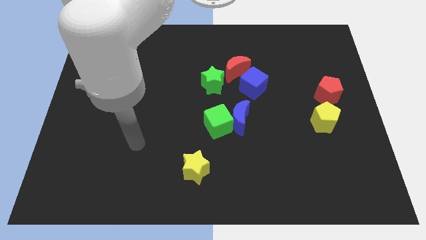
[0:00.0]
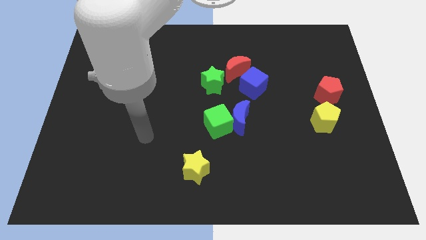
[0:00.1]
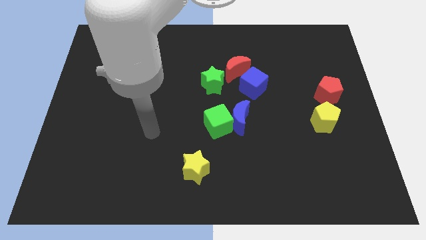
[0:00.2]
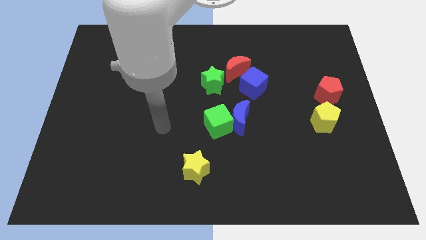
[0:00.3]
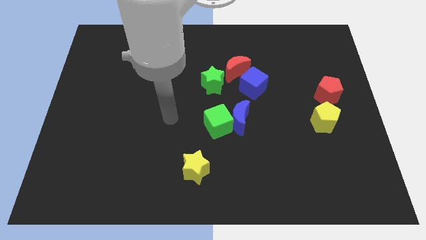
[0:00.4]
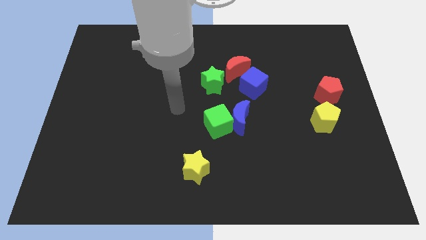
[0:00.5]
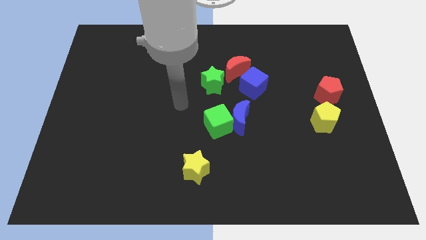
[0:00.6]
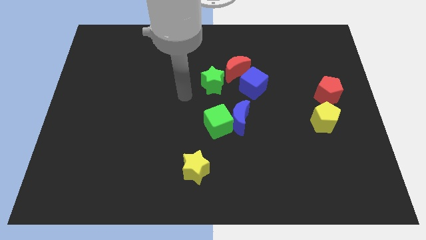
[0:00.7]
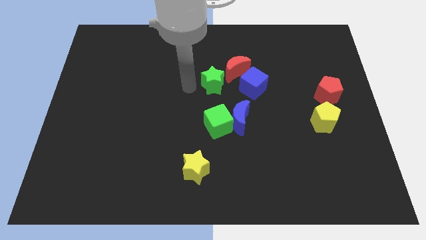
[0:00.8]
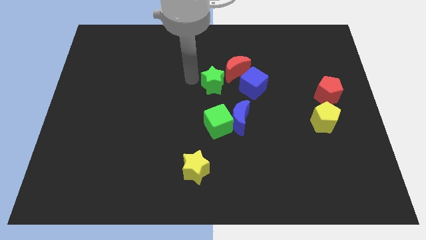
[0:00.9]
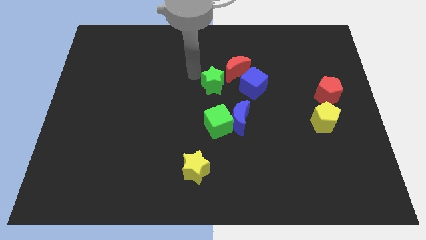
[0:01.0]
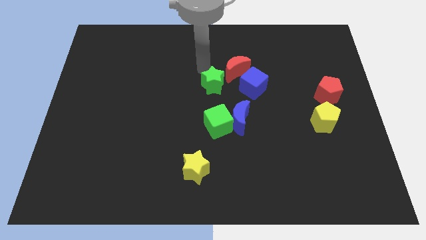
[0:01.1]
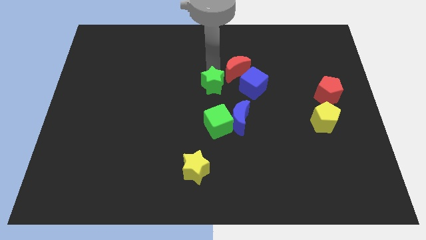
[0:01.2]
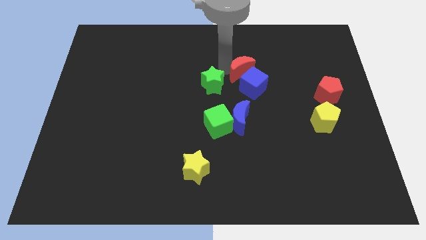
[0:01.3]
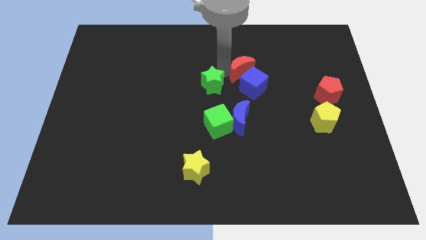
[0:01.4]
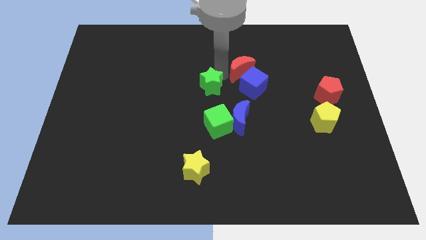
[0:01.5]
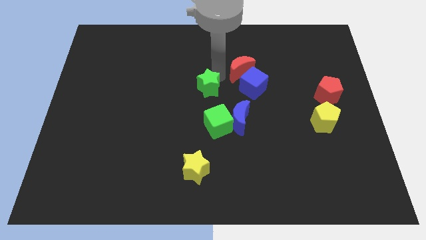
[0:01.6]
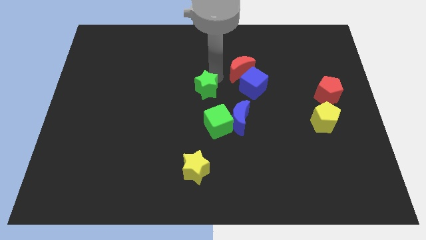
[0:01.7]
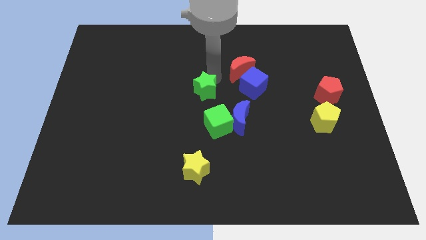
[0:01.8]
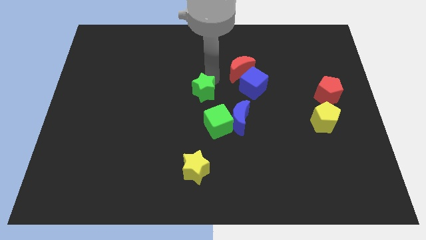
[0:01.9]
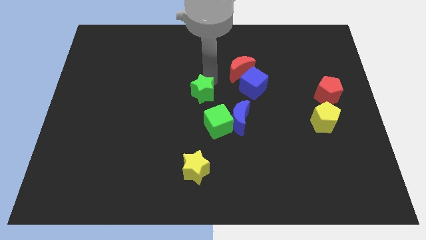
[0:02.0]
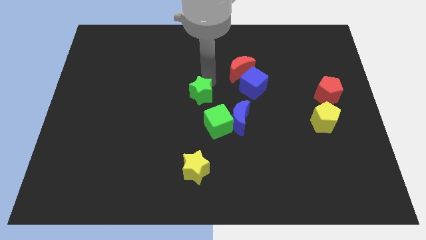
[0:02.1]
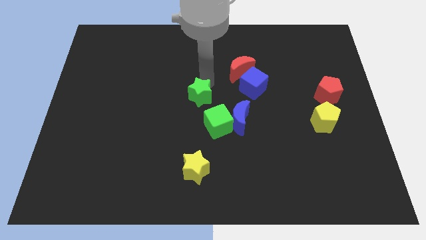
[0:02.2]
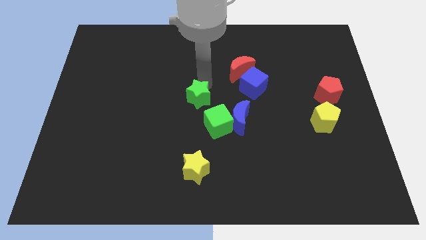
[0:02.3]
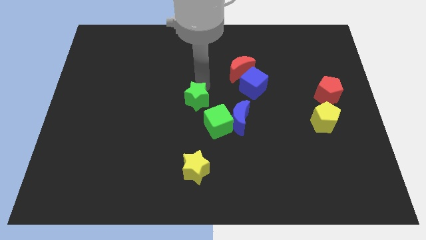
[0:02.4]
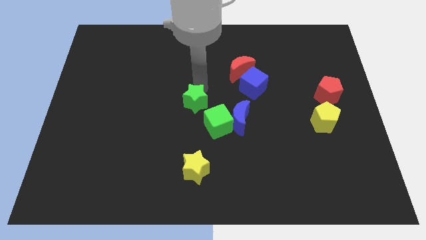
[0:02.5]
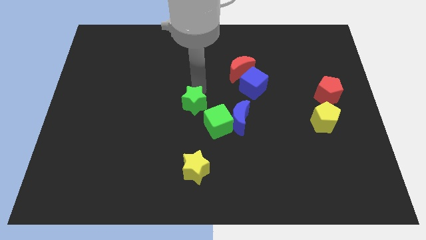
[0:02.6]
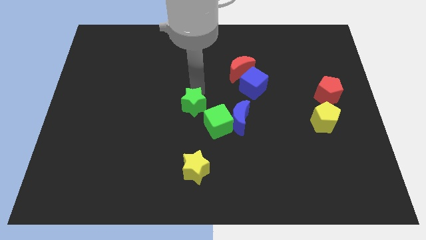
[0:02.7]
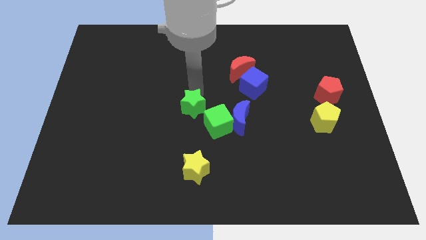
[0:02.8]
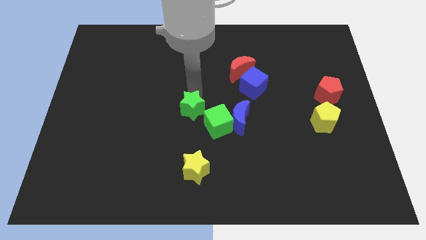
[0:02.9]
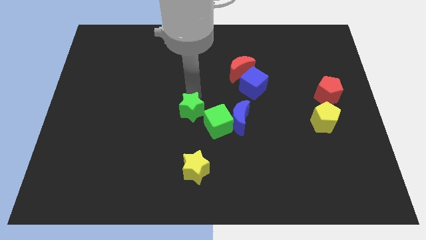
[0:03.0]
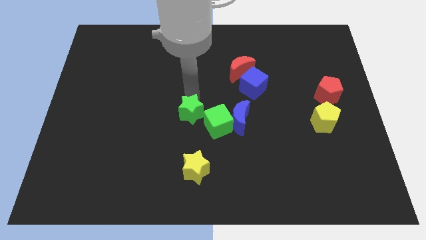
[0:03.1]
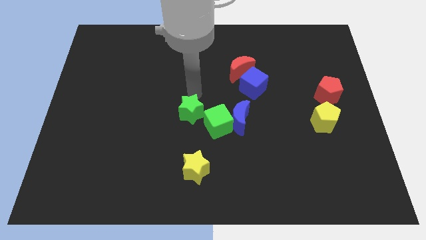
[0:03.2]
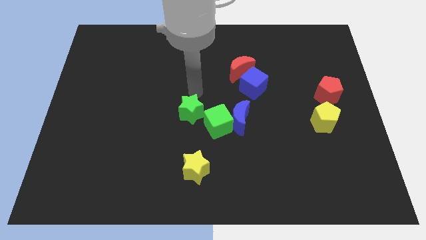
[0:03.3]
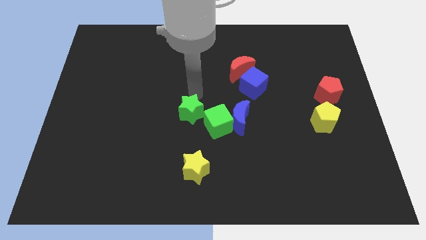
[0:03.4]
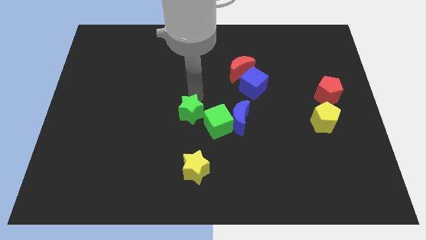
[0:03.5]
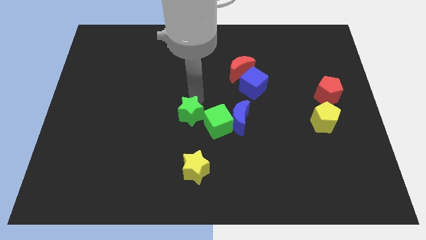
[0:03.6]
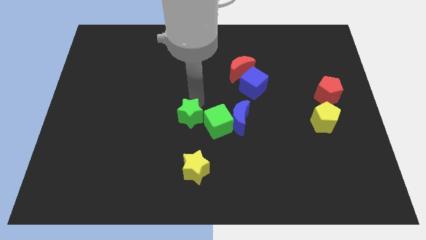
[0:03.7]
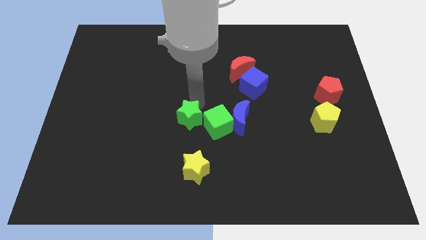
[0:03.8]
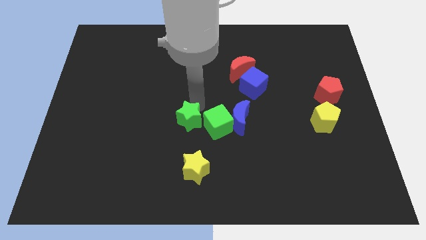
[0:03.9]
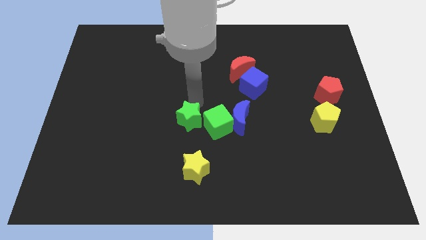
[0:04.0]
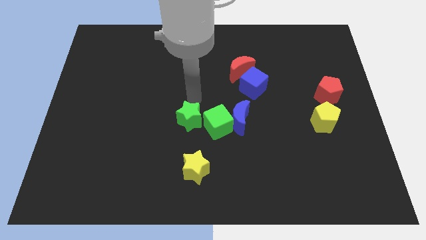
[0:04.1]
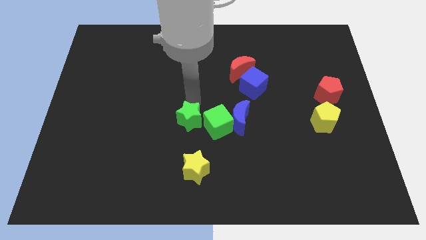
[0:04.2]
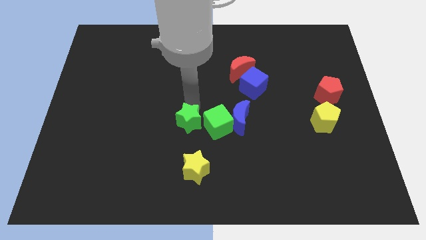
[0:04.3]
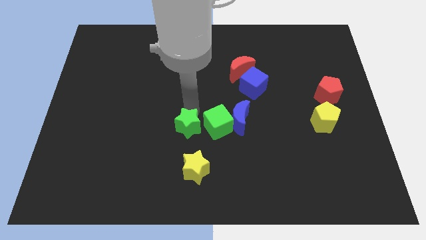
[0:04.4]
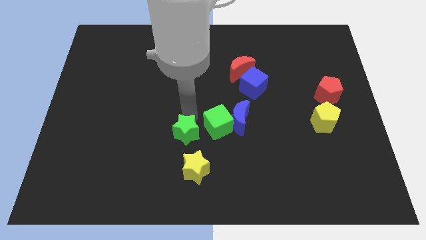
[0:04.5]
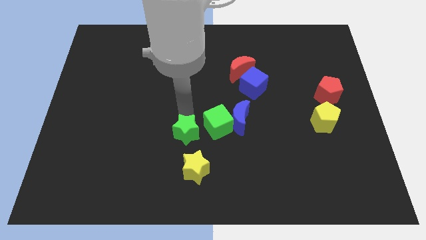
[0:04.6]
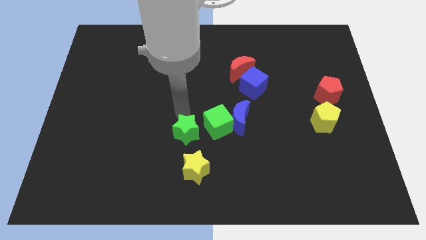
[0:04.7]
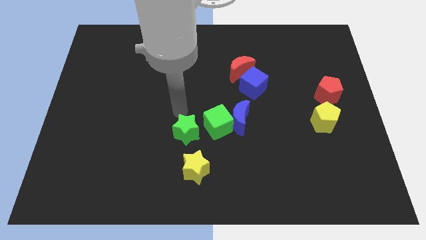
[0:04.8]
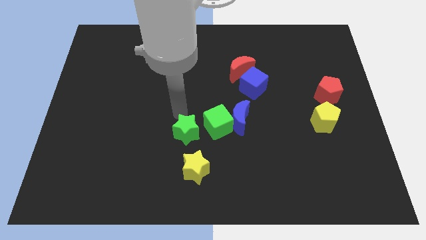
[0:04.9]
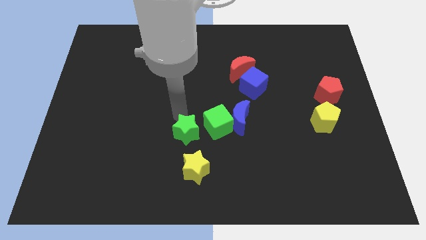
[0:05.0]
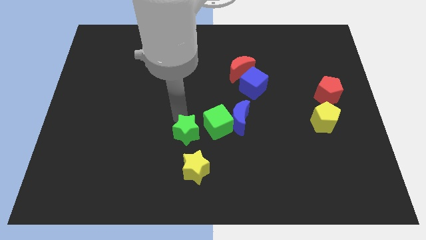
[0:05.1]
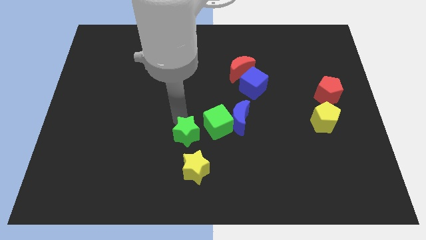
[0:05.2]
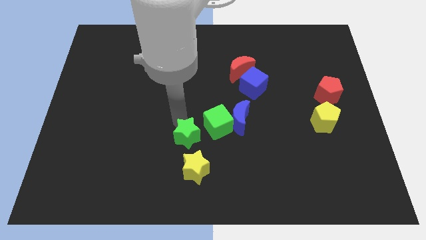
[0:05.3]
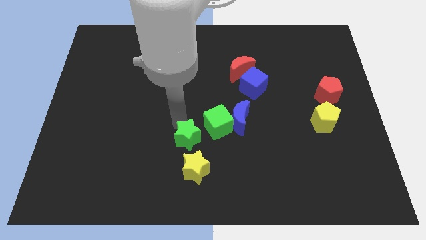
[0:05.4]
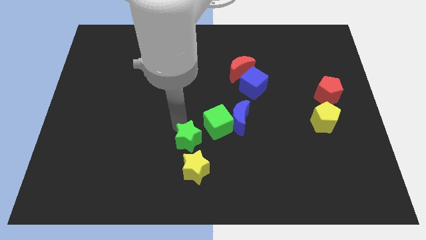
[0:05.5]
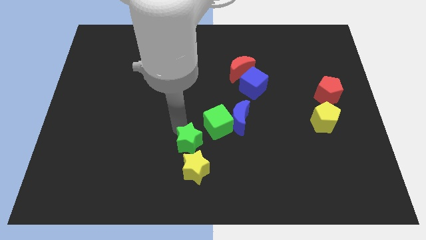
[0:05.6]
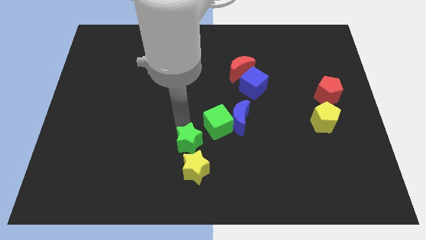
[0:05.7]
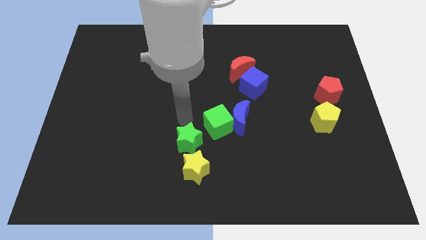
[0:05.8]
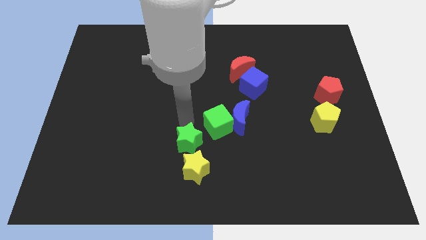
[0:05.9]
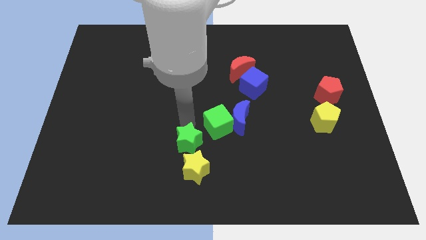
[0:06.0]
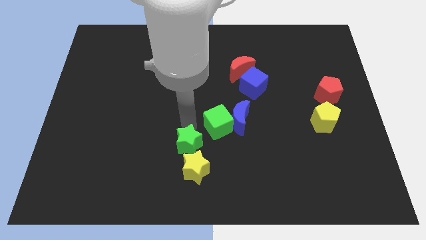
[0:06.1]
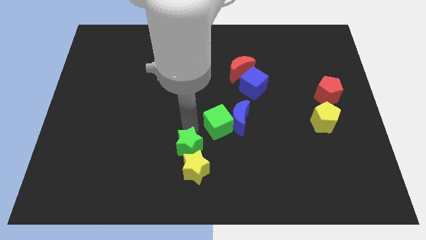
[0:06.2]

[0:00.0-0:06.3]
put the green star next to the yellow star

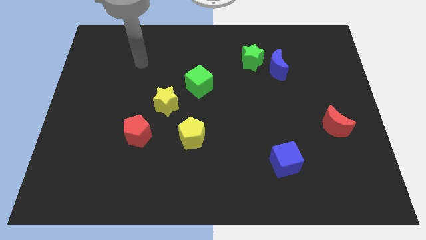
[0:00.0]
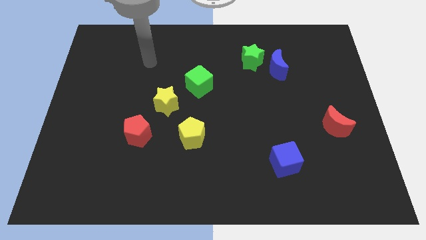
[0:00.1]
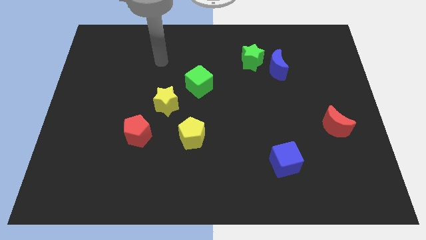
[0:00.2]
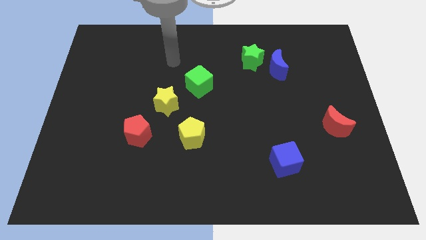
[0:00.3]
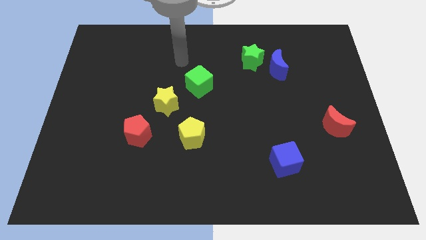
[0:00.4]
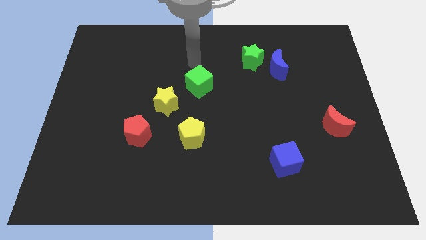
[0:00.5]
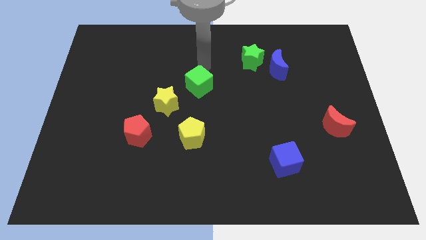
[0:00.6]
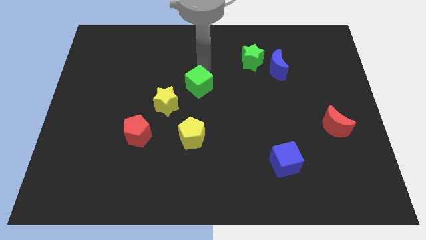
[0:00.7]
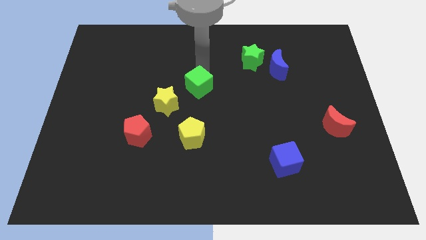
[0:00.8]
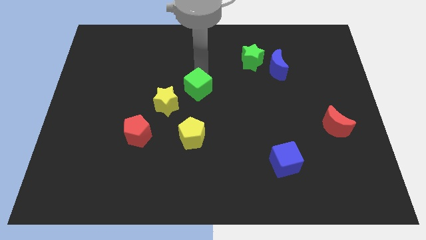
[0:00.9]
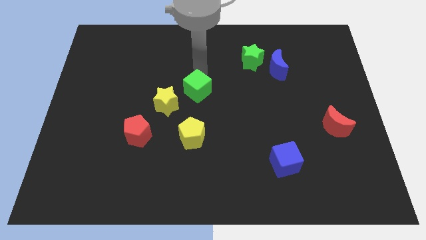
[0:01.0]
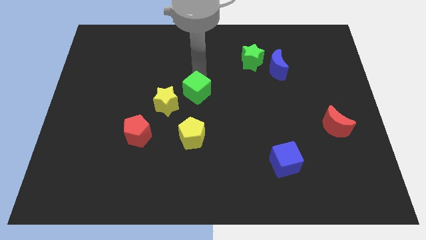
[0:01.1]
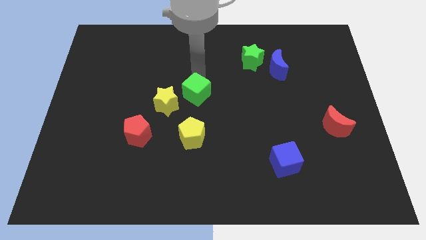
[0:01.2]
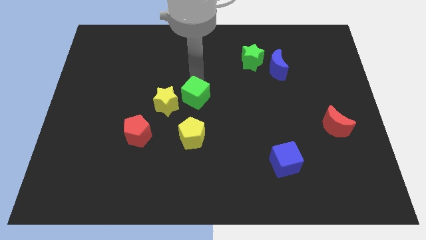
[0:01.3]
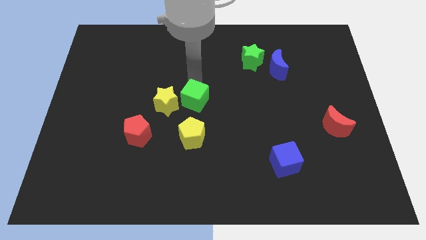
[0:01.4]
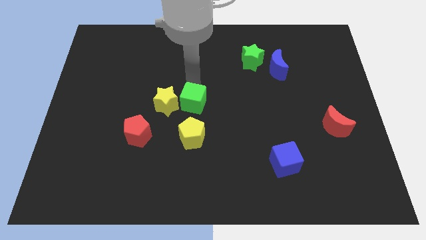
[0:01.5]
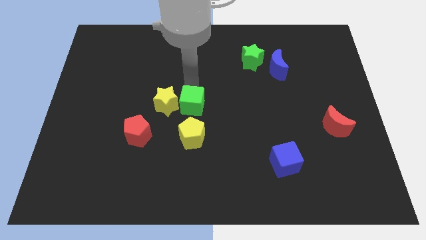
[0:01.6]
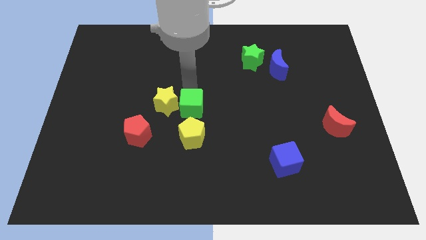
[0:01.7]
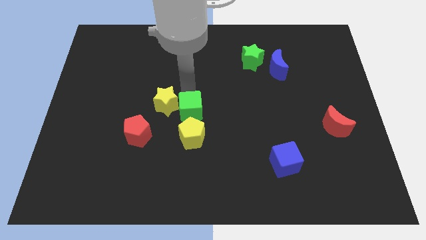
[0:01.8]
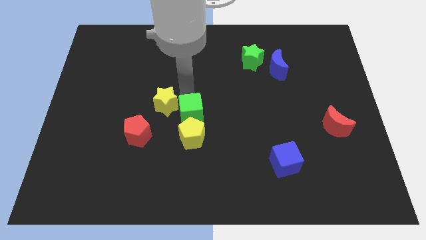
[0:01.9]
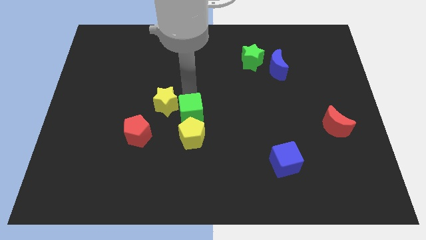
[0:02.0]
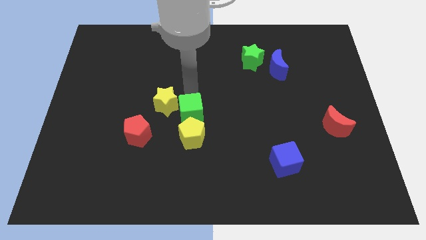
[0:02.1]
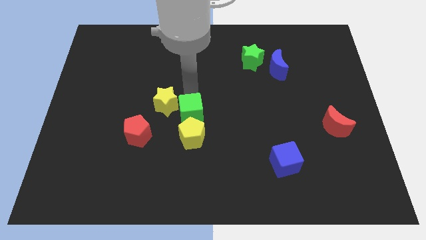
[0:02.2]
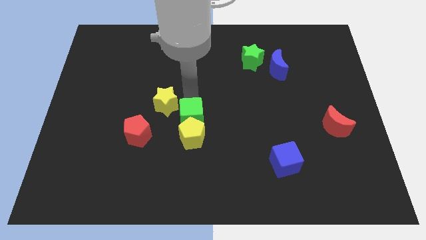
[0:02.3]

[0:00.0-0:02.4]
slide the green cube towards the yellow pentagon
